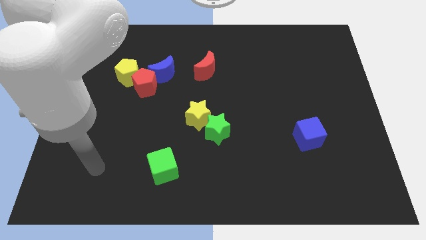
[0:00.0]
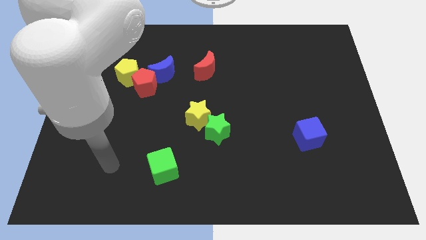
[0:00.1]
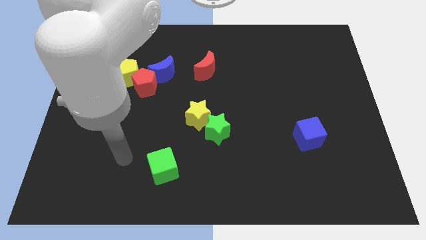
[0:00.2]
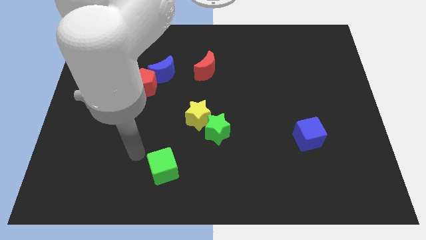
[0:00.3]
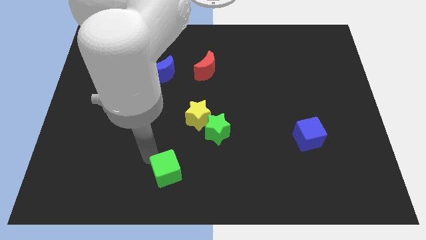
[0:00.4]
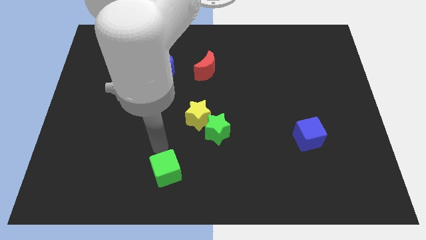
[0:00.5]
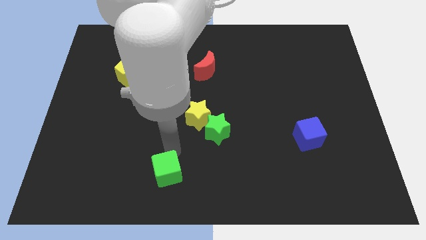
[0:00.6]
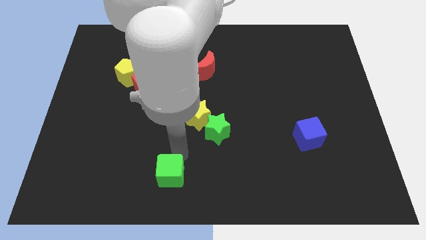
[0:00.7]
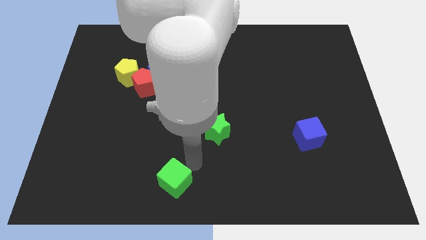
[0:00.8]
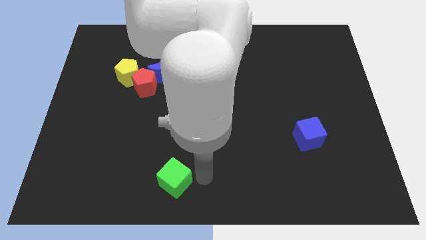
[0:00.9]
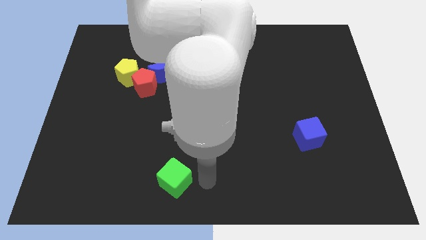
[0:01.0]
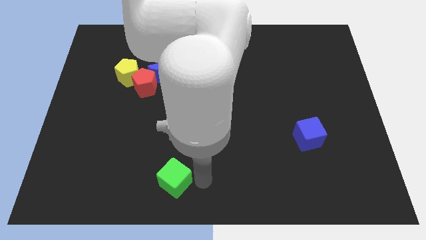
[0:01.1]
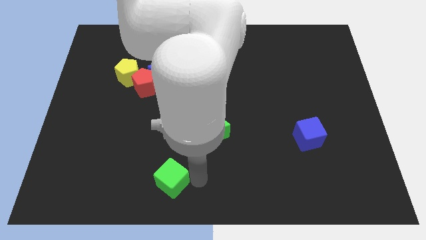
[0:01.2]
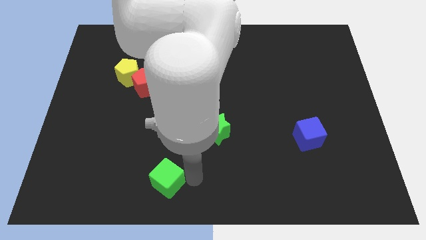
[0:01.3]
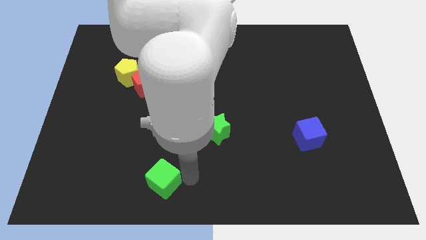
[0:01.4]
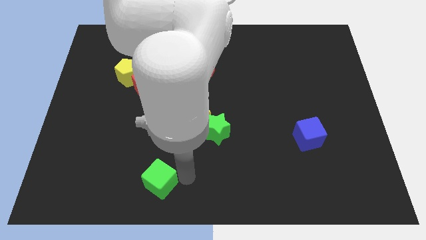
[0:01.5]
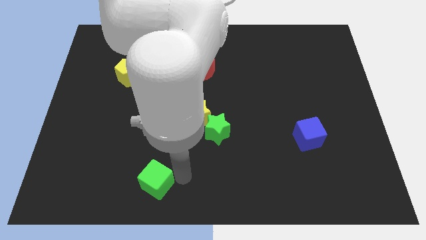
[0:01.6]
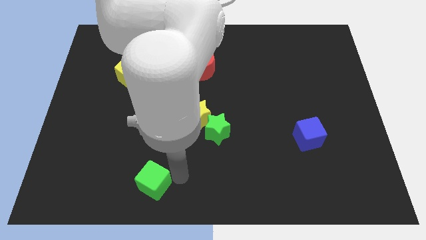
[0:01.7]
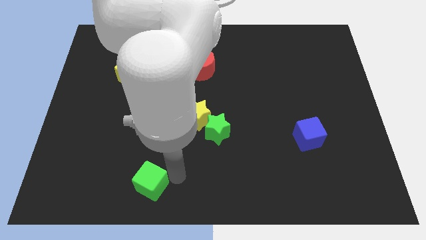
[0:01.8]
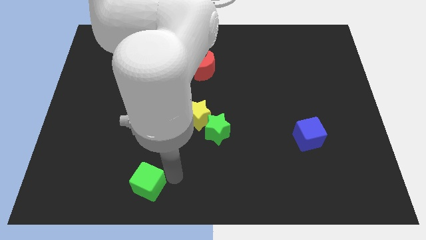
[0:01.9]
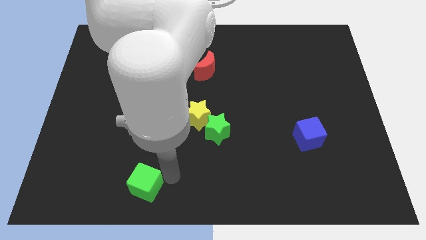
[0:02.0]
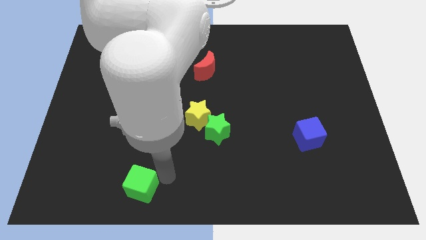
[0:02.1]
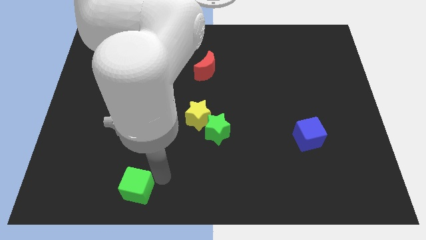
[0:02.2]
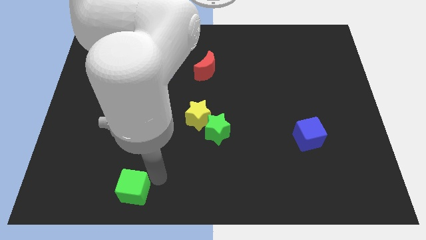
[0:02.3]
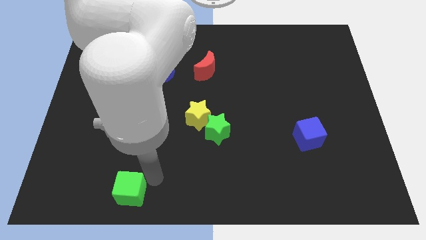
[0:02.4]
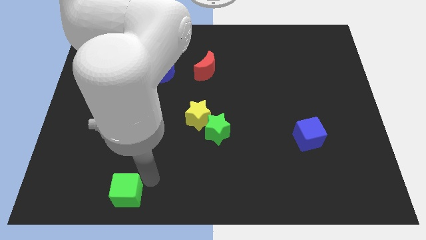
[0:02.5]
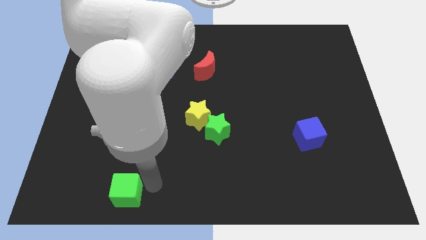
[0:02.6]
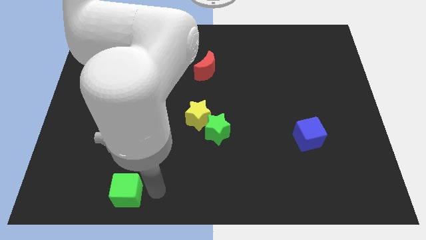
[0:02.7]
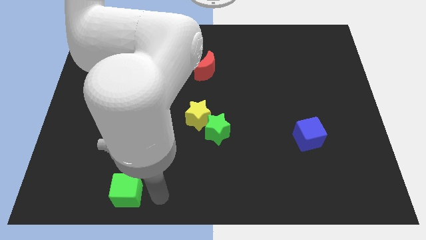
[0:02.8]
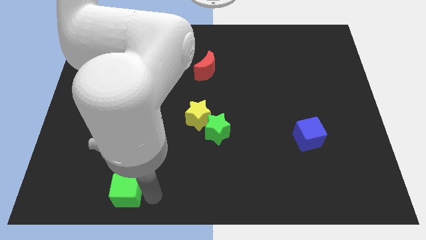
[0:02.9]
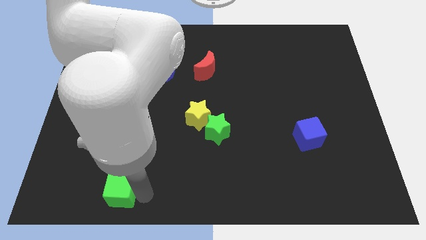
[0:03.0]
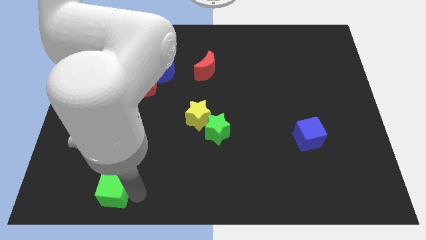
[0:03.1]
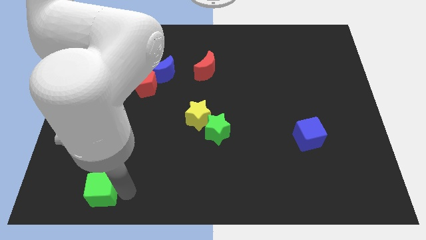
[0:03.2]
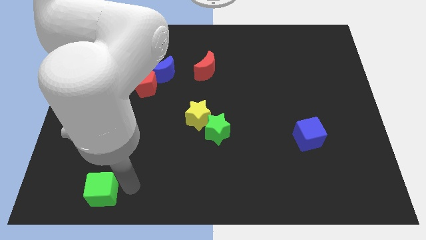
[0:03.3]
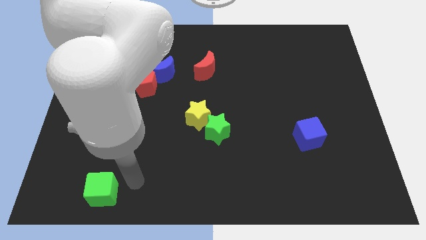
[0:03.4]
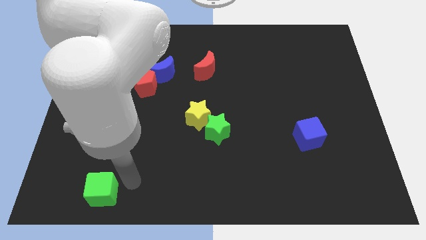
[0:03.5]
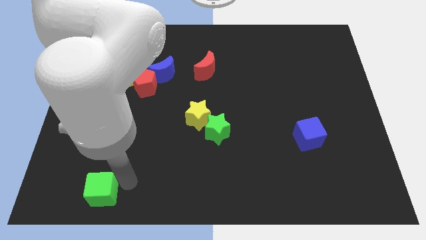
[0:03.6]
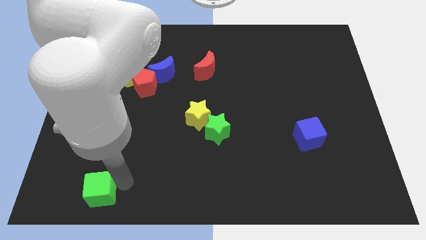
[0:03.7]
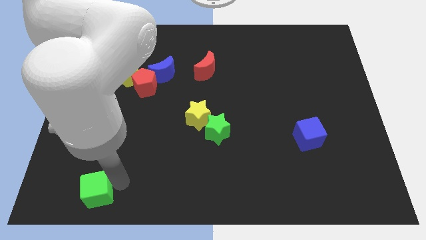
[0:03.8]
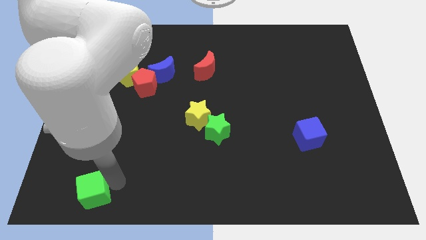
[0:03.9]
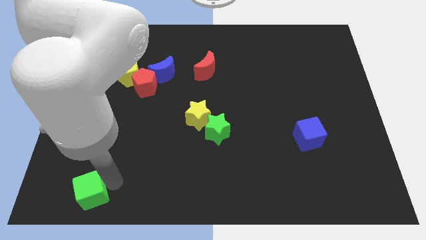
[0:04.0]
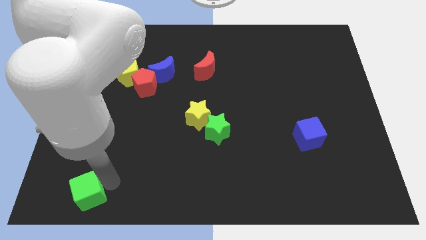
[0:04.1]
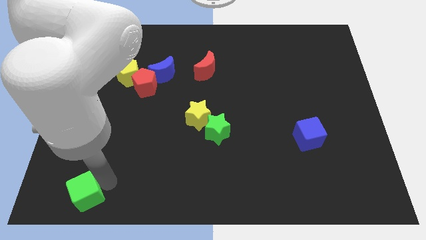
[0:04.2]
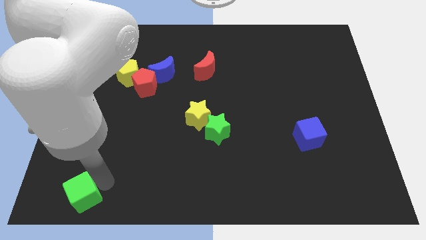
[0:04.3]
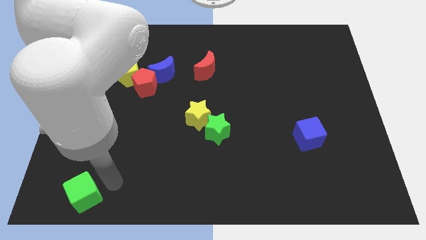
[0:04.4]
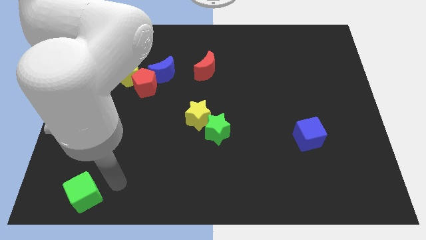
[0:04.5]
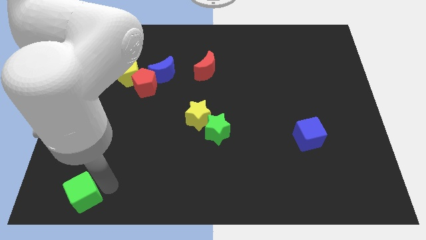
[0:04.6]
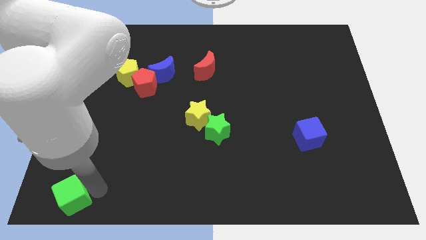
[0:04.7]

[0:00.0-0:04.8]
push the green cube to the bottom left of the board

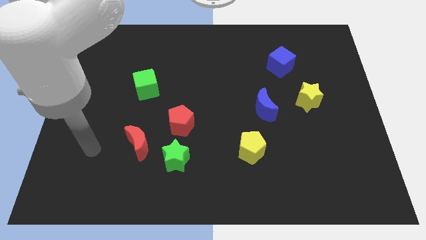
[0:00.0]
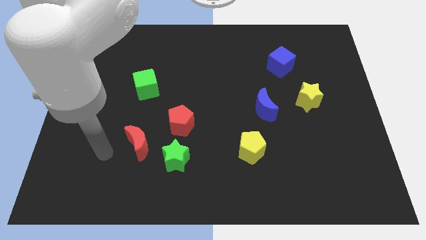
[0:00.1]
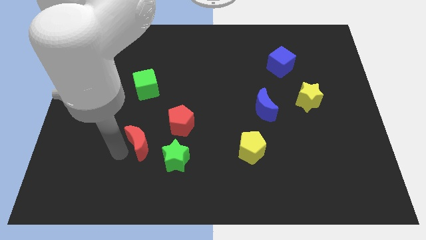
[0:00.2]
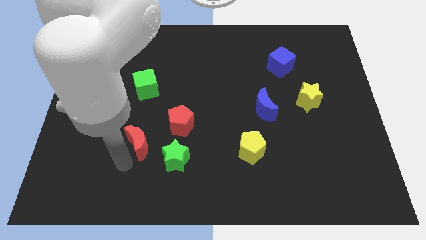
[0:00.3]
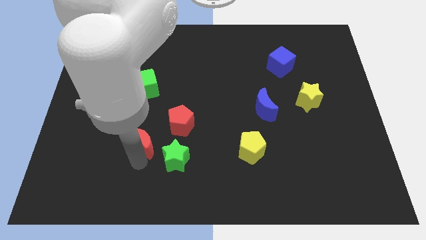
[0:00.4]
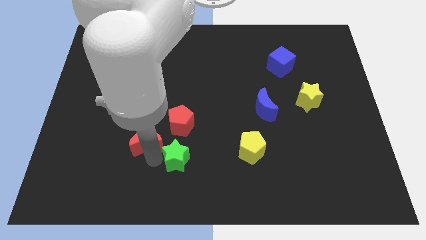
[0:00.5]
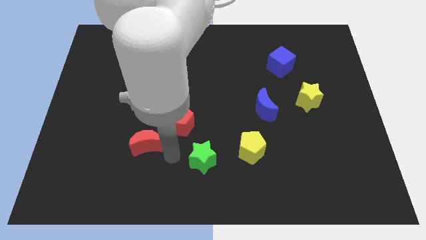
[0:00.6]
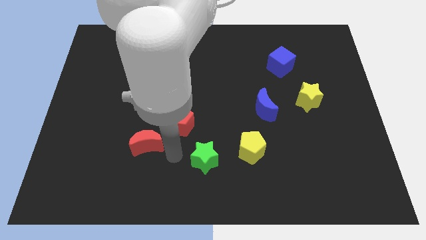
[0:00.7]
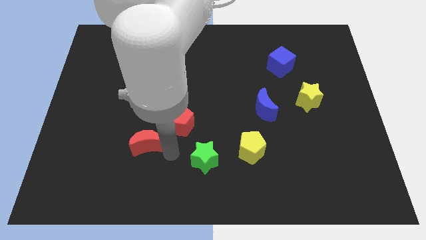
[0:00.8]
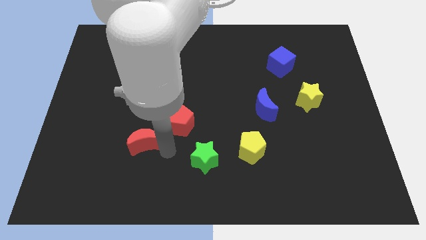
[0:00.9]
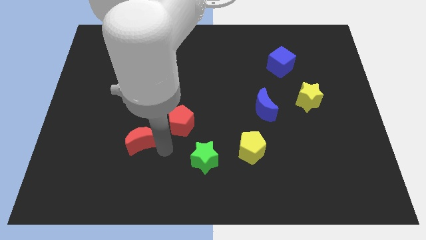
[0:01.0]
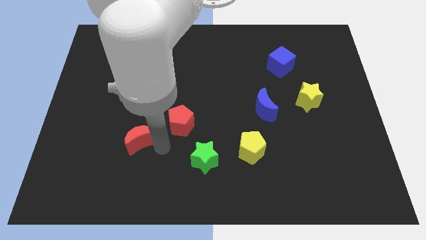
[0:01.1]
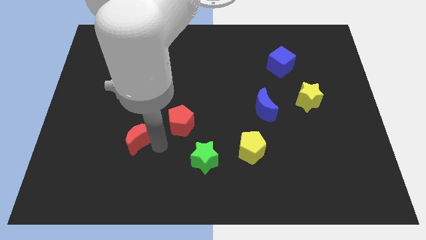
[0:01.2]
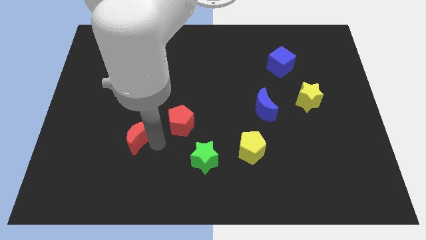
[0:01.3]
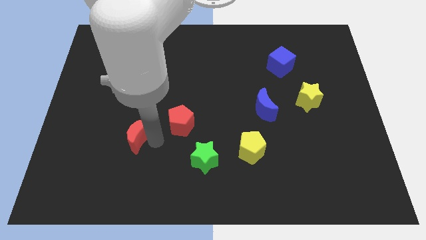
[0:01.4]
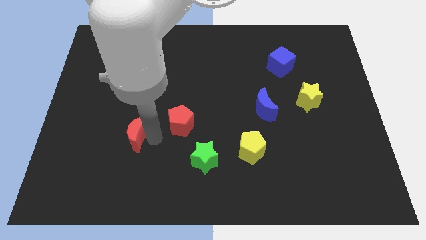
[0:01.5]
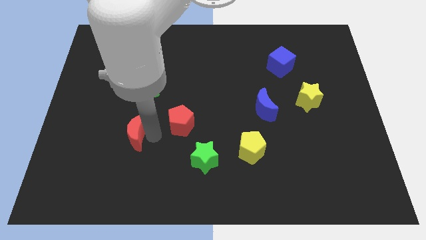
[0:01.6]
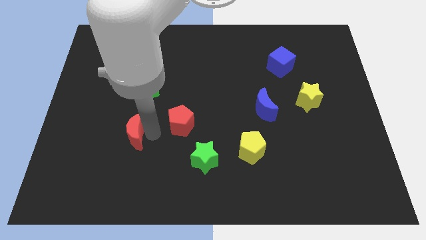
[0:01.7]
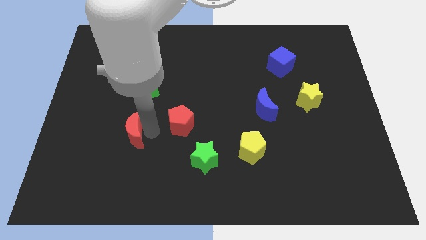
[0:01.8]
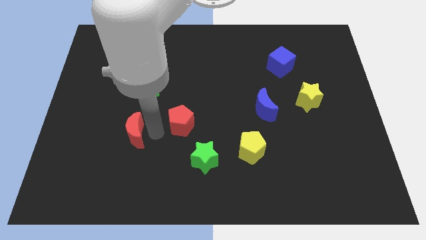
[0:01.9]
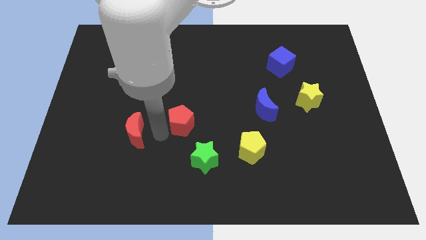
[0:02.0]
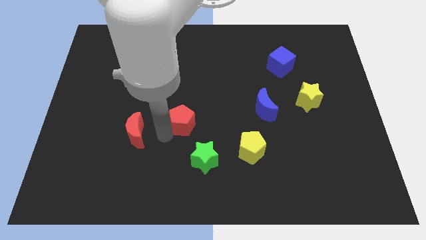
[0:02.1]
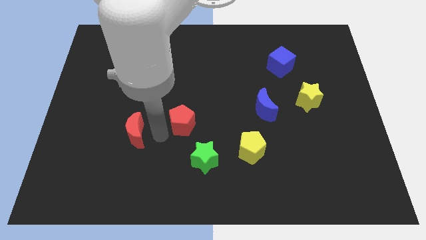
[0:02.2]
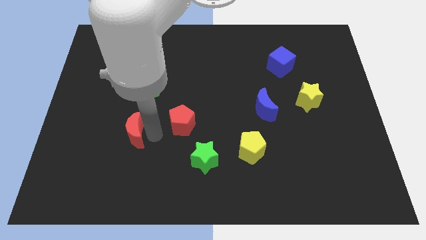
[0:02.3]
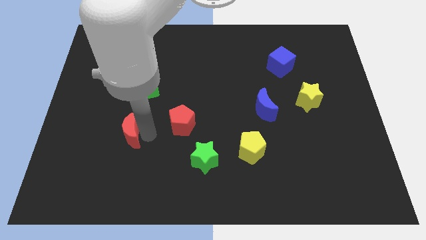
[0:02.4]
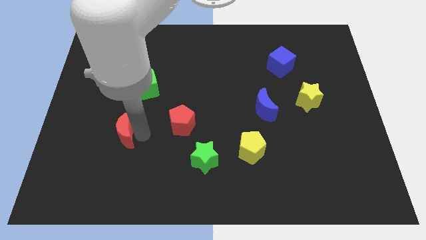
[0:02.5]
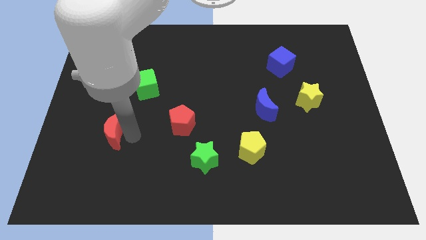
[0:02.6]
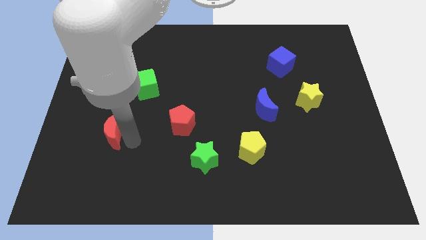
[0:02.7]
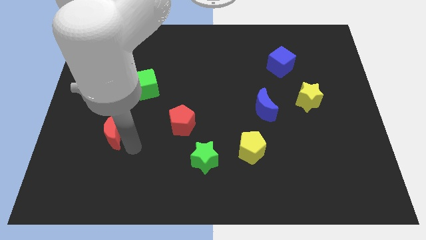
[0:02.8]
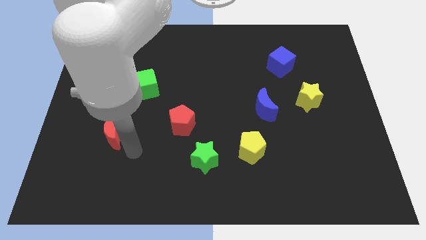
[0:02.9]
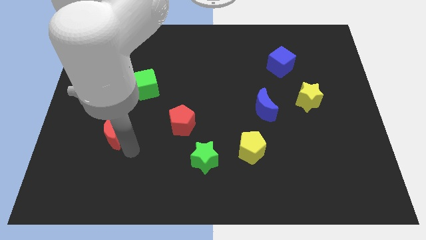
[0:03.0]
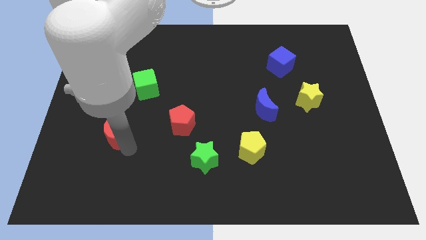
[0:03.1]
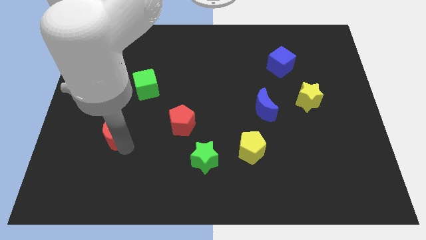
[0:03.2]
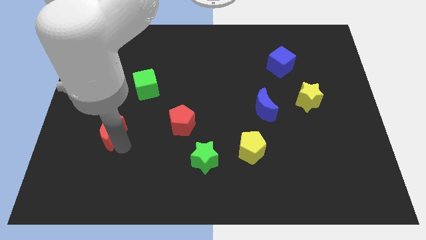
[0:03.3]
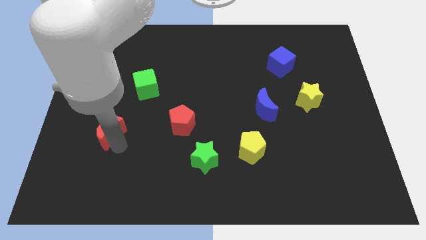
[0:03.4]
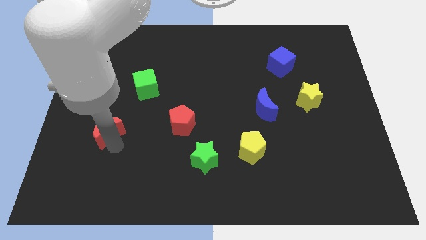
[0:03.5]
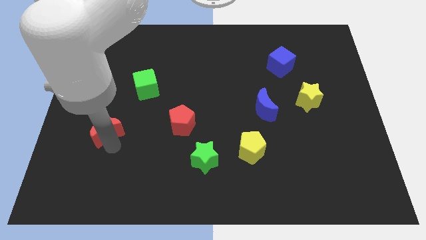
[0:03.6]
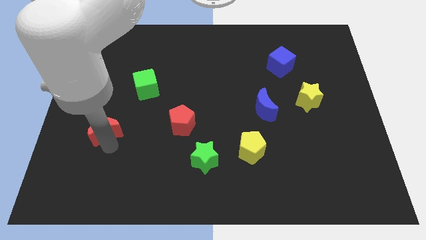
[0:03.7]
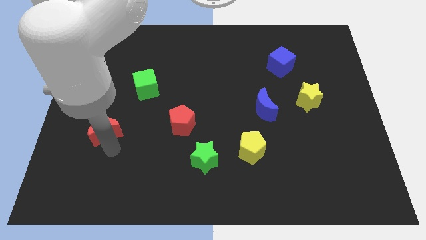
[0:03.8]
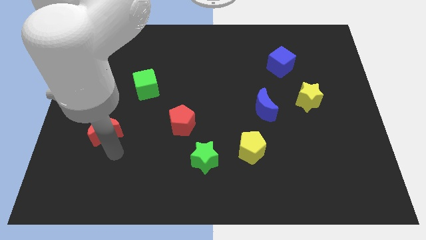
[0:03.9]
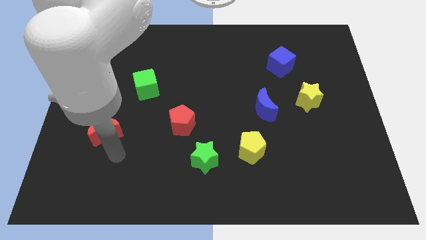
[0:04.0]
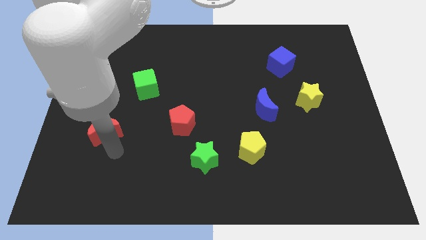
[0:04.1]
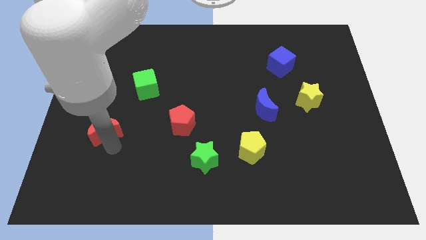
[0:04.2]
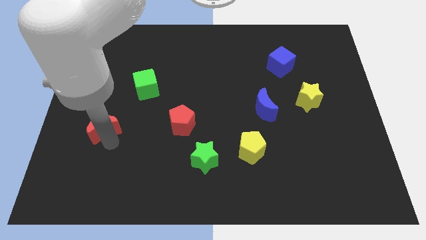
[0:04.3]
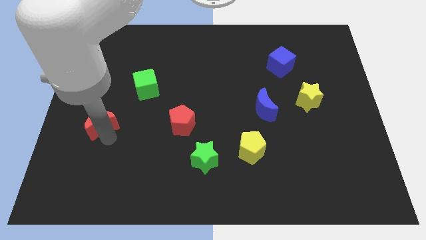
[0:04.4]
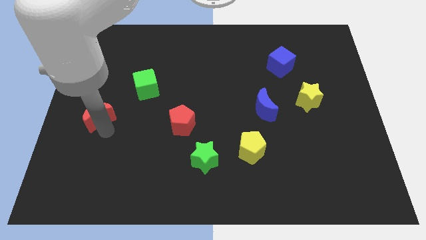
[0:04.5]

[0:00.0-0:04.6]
slide the red moon to the left side of the board
